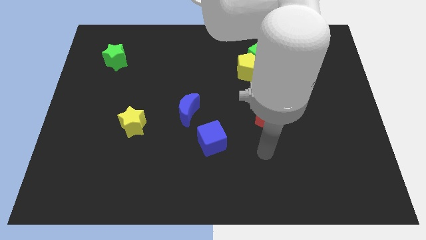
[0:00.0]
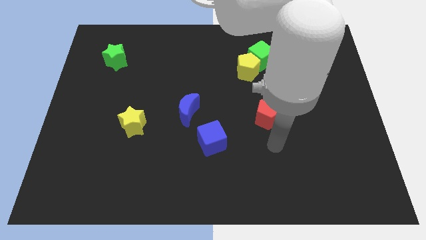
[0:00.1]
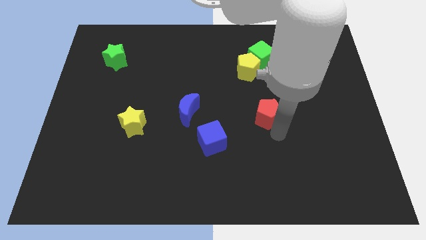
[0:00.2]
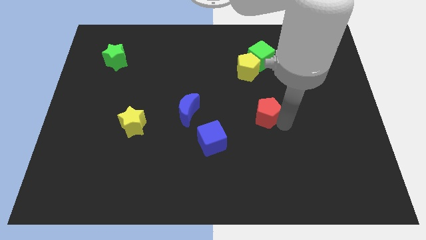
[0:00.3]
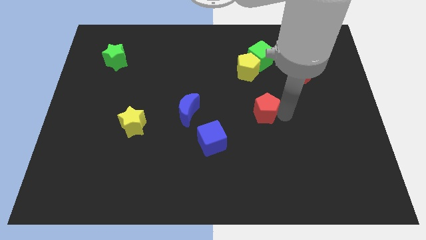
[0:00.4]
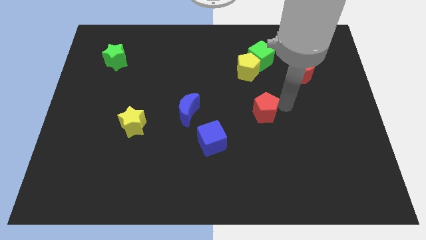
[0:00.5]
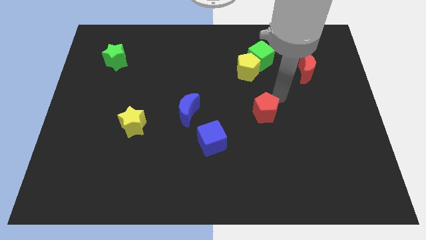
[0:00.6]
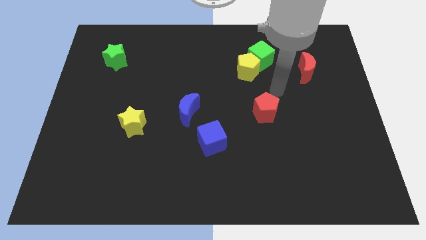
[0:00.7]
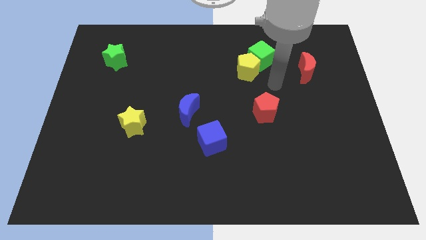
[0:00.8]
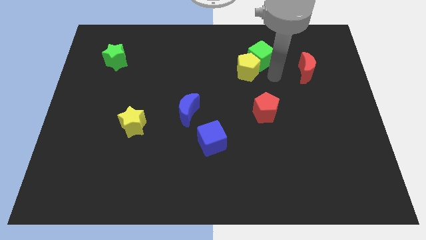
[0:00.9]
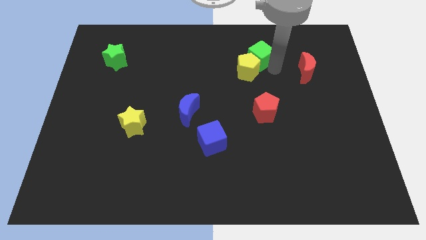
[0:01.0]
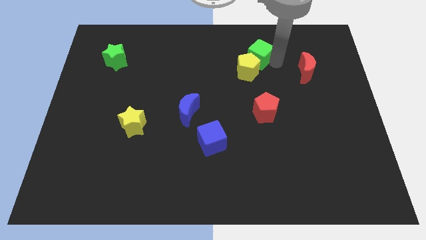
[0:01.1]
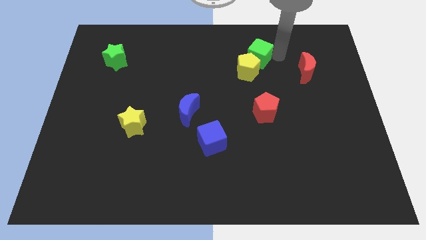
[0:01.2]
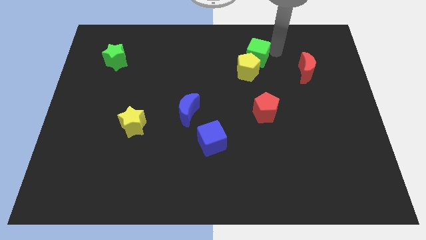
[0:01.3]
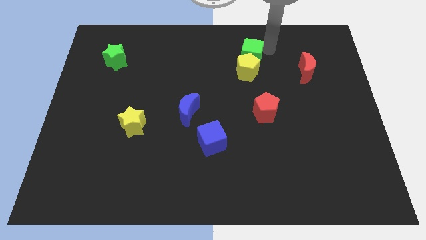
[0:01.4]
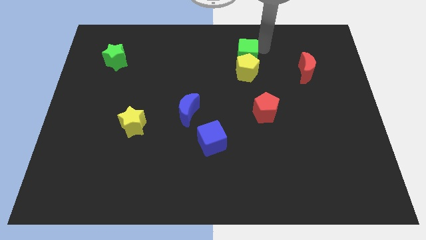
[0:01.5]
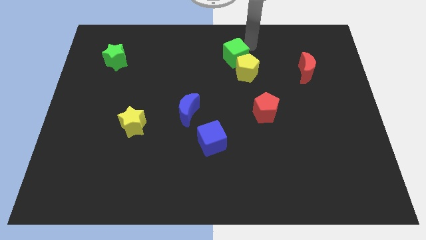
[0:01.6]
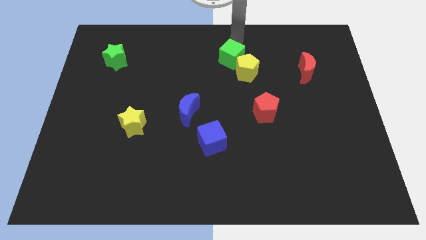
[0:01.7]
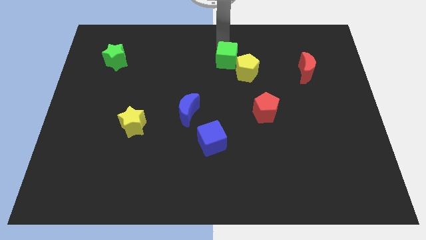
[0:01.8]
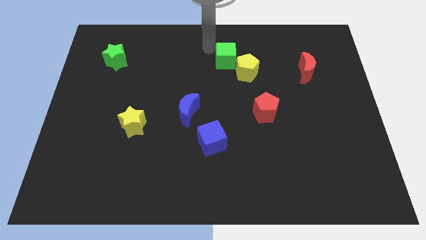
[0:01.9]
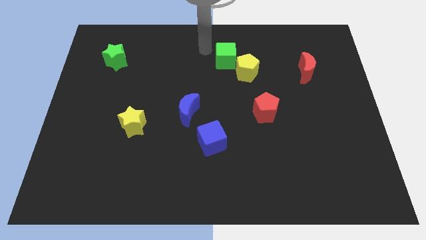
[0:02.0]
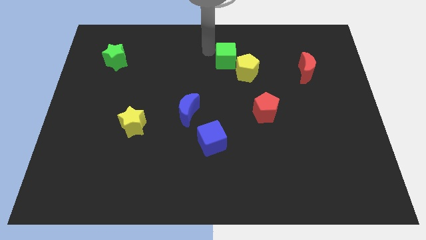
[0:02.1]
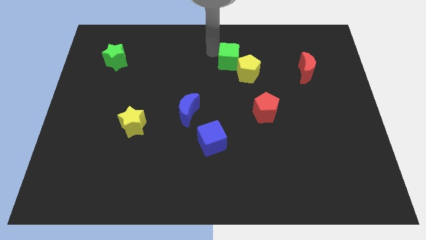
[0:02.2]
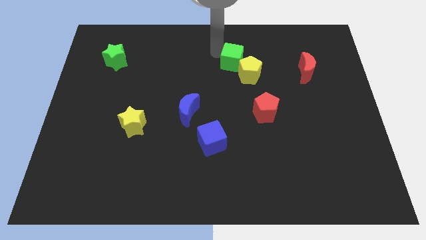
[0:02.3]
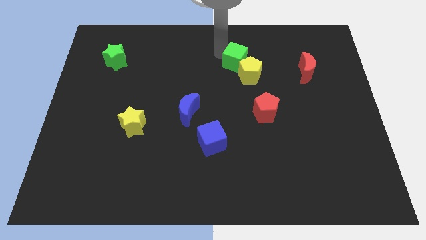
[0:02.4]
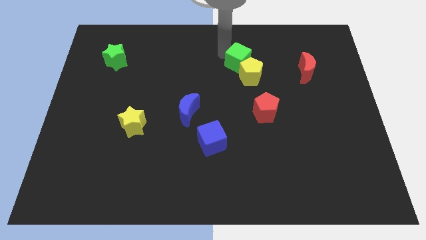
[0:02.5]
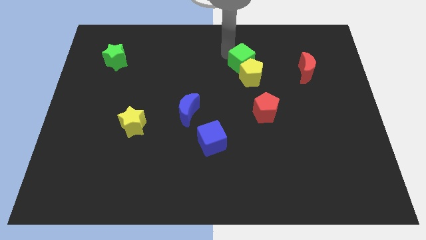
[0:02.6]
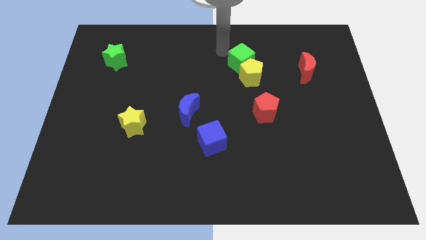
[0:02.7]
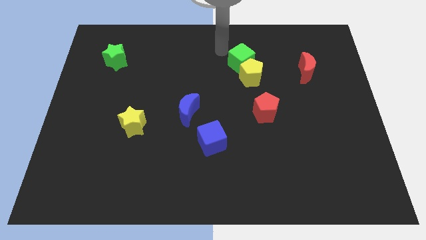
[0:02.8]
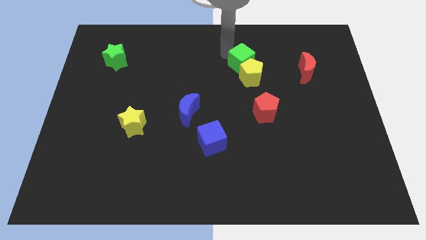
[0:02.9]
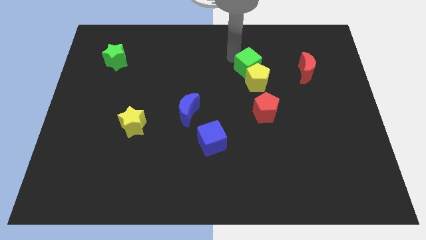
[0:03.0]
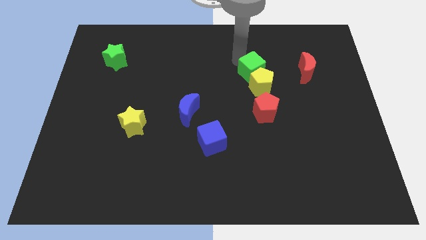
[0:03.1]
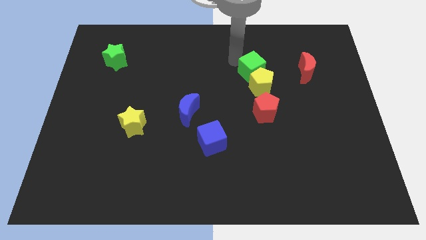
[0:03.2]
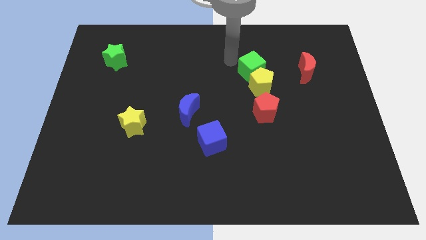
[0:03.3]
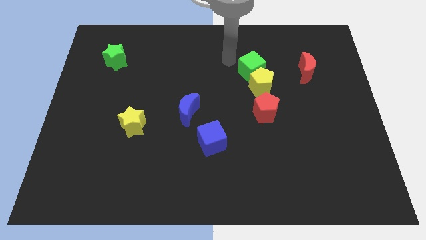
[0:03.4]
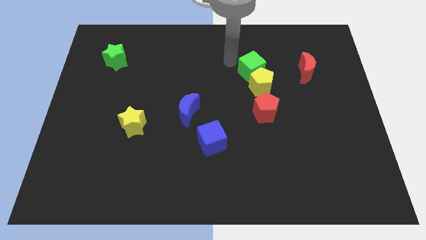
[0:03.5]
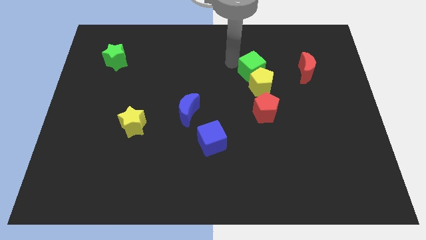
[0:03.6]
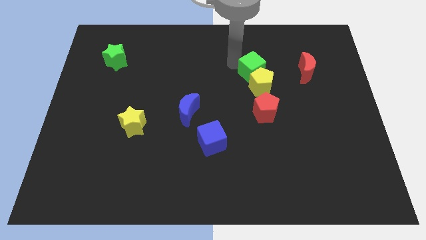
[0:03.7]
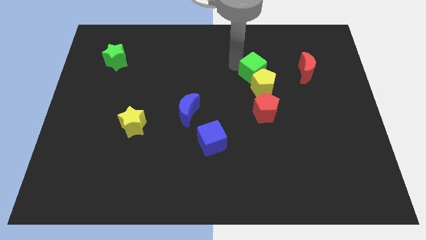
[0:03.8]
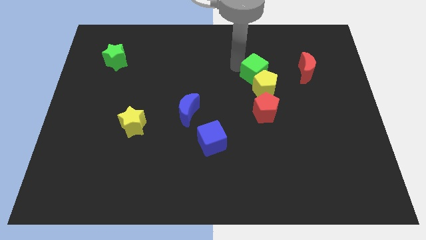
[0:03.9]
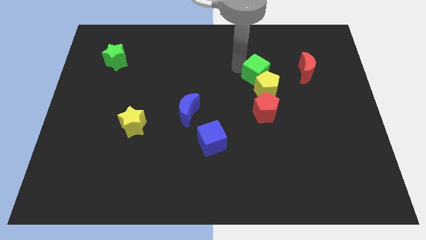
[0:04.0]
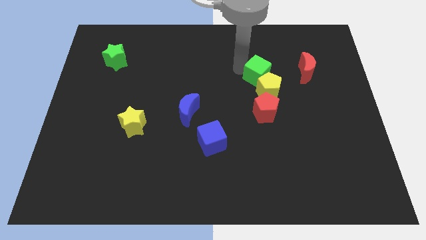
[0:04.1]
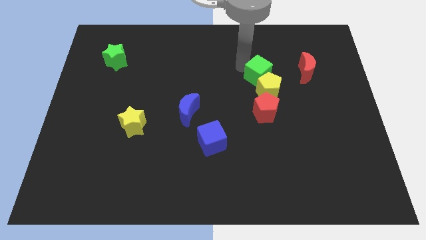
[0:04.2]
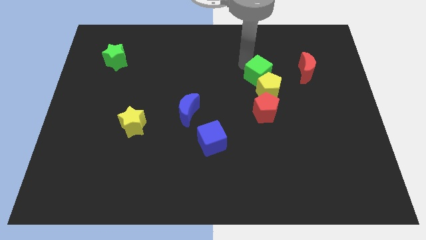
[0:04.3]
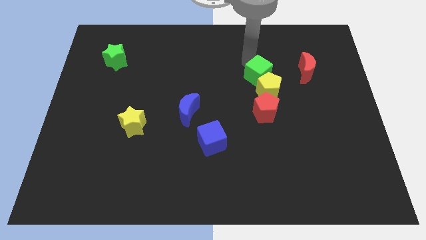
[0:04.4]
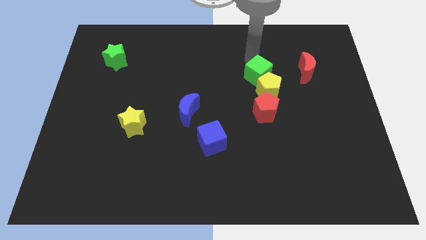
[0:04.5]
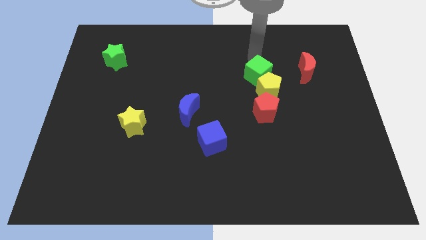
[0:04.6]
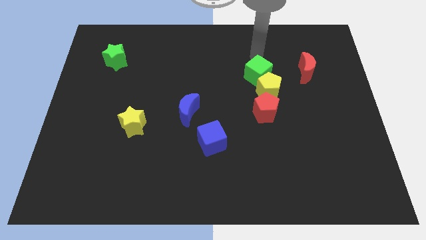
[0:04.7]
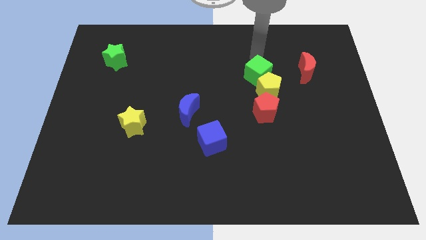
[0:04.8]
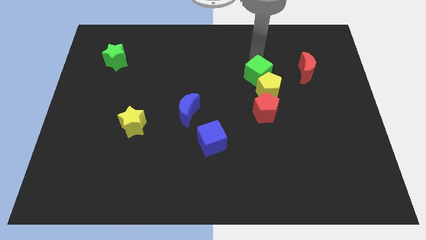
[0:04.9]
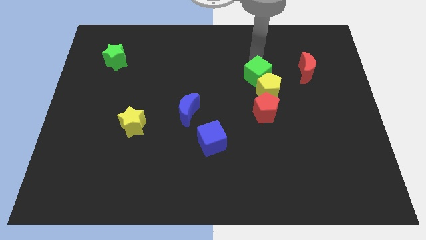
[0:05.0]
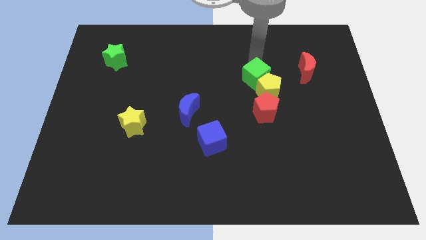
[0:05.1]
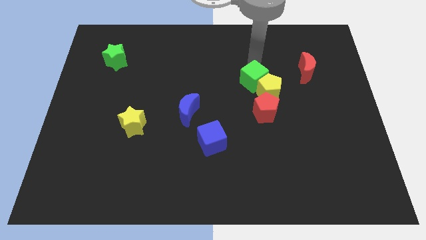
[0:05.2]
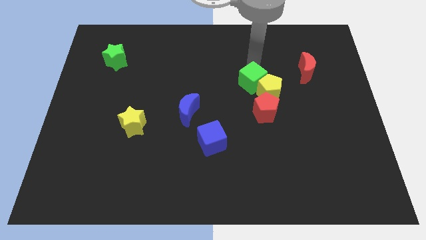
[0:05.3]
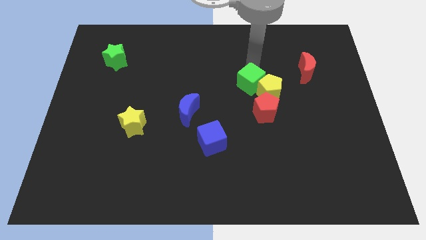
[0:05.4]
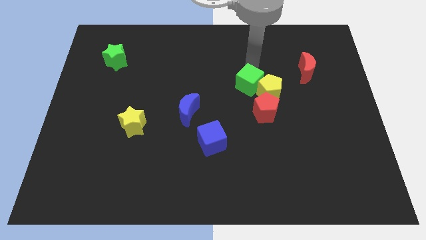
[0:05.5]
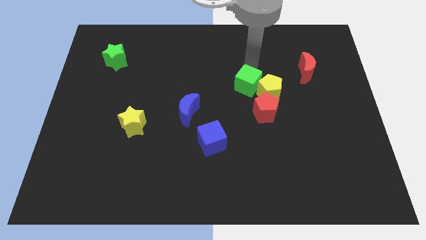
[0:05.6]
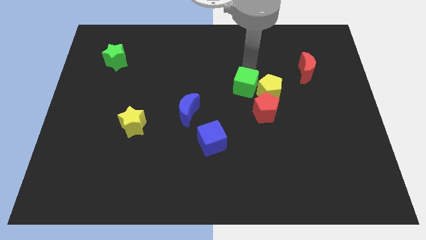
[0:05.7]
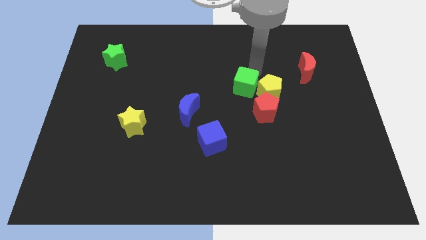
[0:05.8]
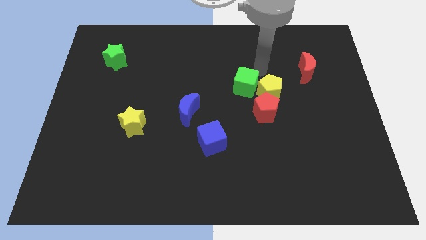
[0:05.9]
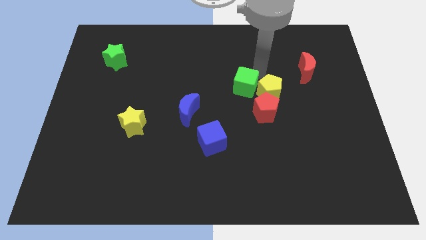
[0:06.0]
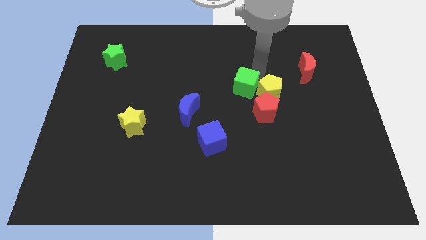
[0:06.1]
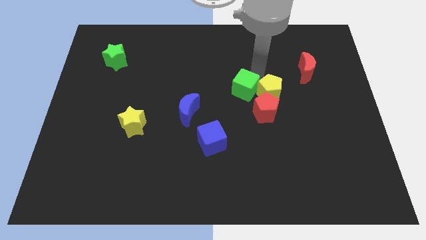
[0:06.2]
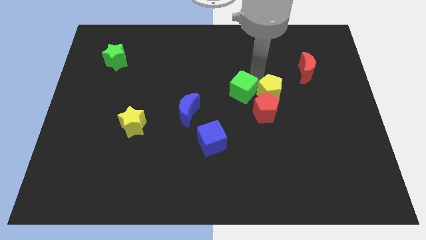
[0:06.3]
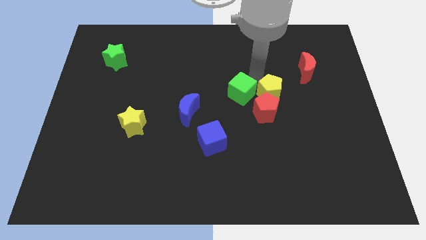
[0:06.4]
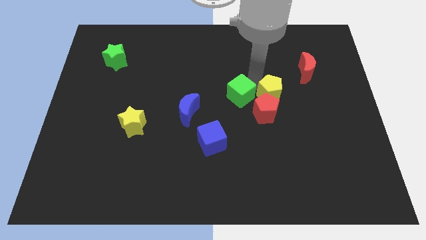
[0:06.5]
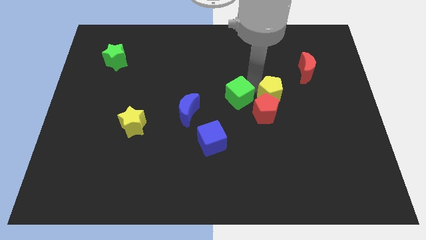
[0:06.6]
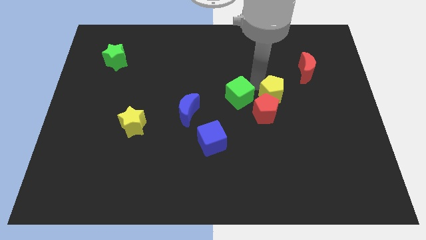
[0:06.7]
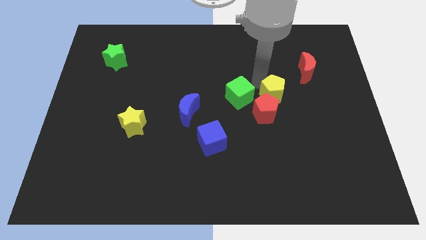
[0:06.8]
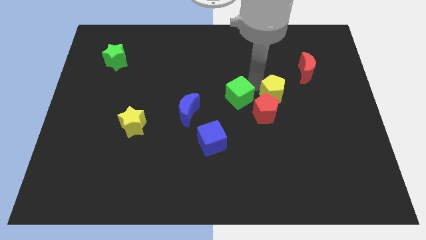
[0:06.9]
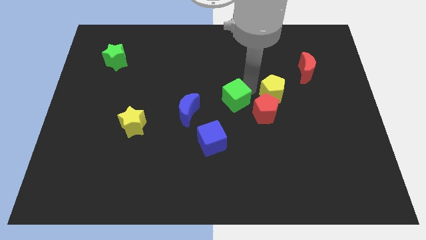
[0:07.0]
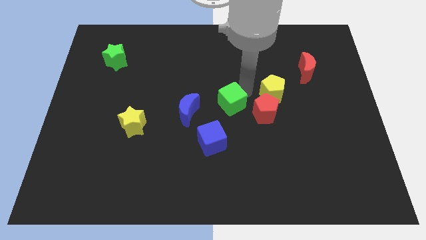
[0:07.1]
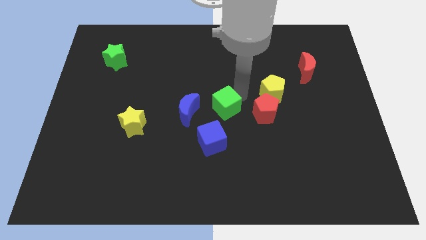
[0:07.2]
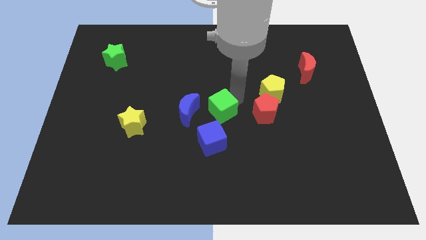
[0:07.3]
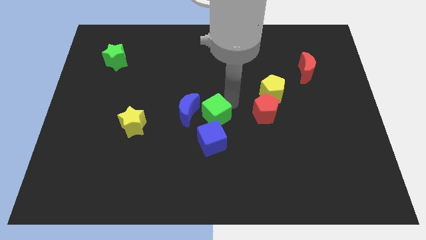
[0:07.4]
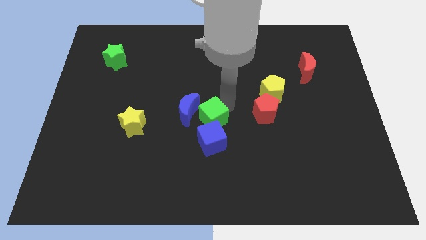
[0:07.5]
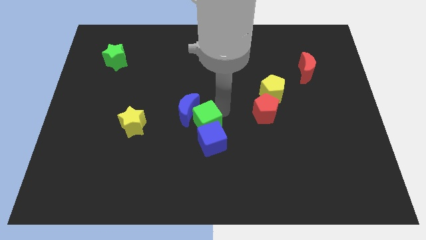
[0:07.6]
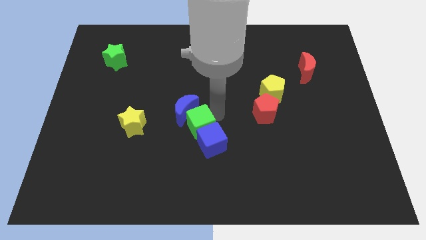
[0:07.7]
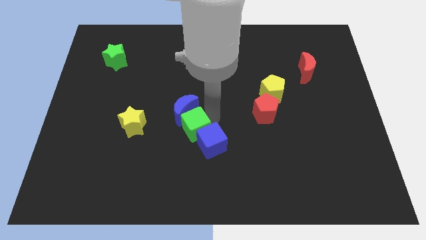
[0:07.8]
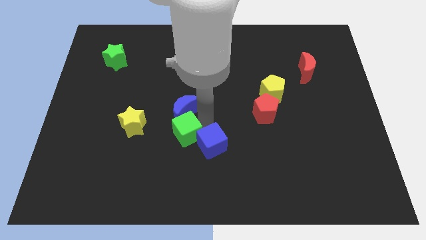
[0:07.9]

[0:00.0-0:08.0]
move the green cube to the bottom left side of the blue moon

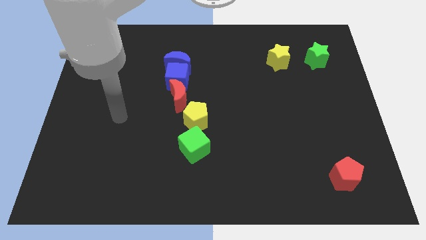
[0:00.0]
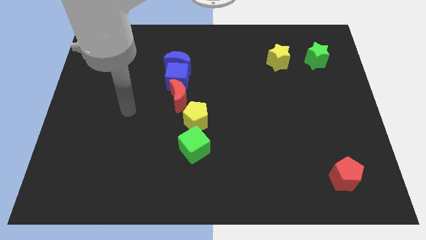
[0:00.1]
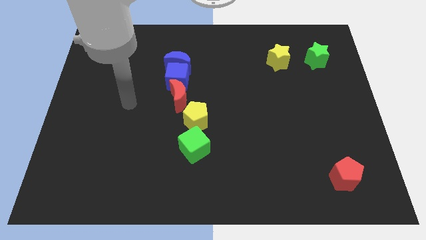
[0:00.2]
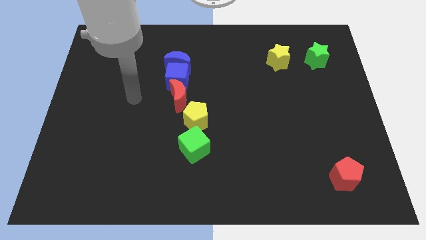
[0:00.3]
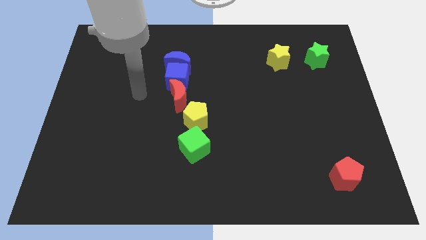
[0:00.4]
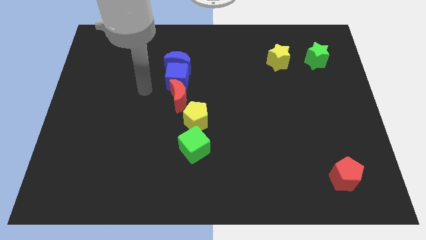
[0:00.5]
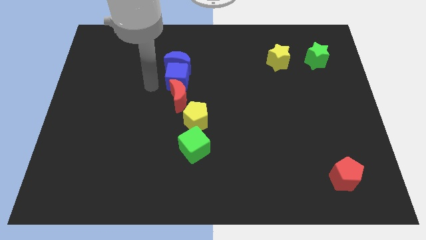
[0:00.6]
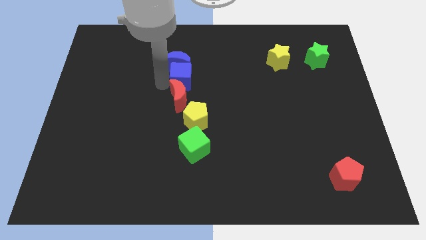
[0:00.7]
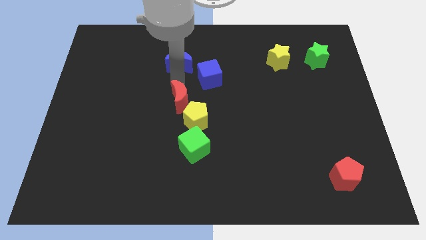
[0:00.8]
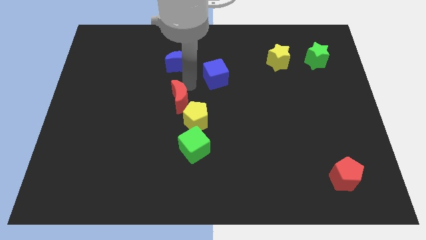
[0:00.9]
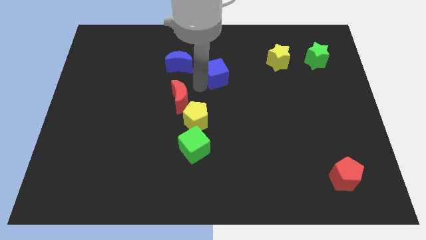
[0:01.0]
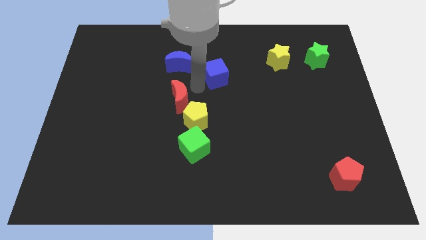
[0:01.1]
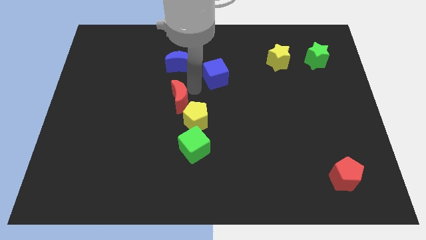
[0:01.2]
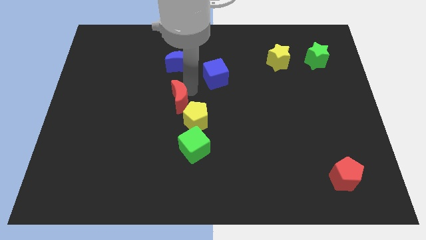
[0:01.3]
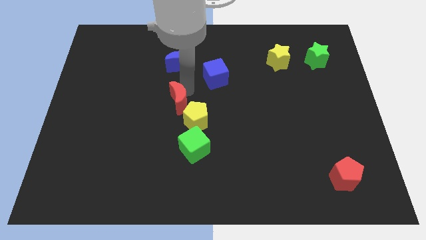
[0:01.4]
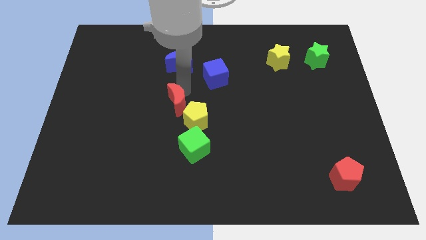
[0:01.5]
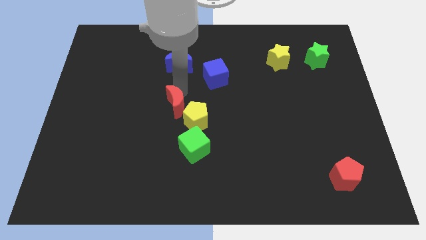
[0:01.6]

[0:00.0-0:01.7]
put the red moon to the left of the yellow pentagon
